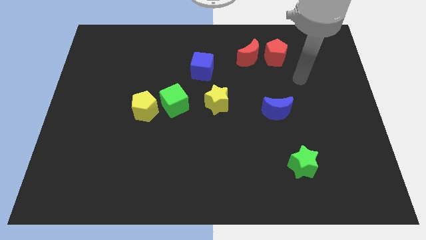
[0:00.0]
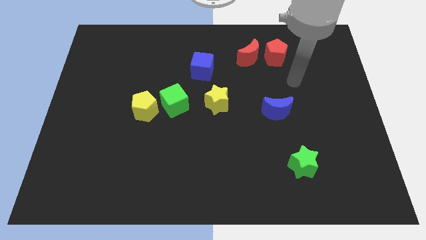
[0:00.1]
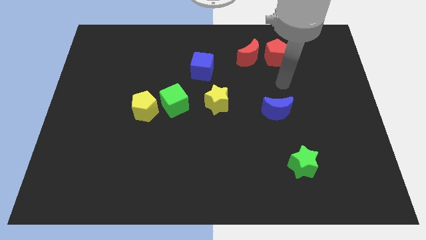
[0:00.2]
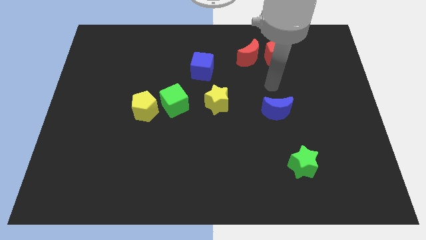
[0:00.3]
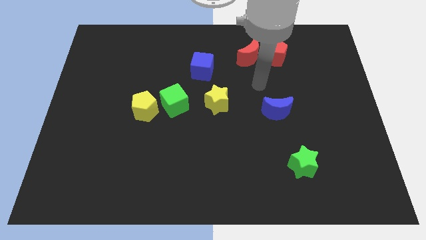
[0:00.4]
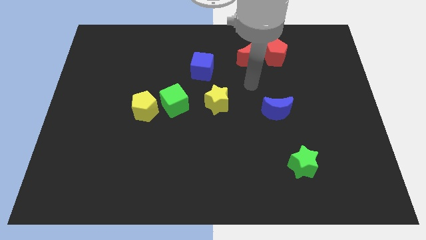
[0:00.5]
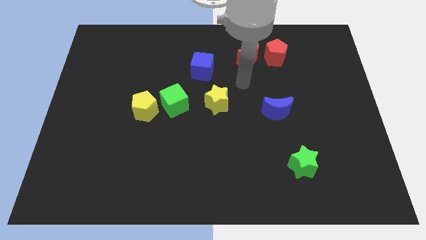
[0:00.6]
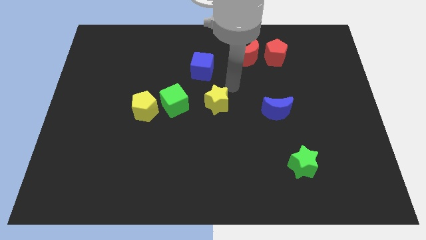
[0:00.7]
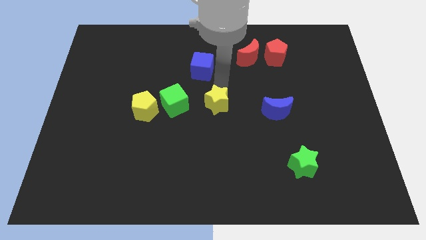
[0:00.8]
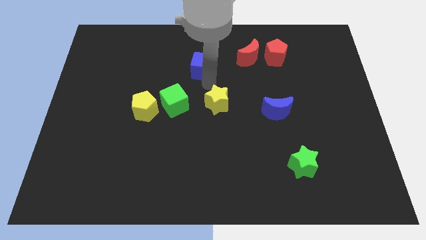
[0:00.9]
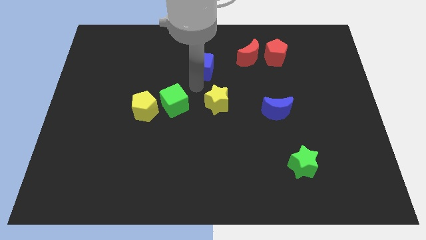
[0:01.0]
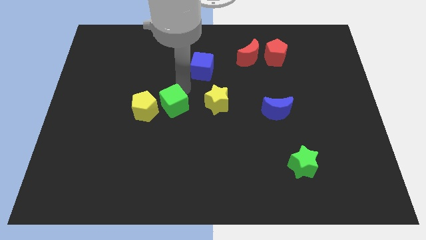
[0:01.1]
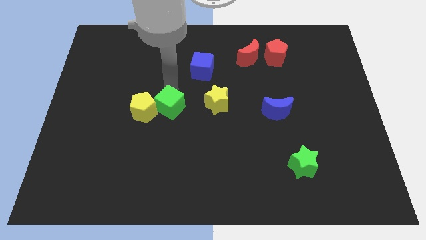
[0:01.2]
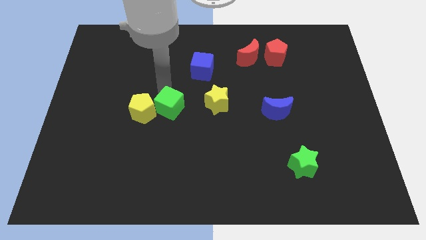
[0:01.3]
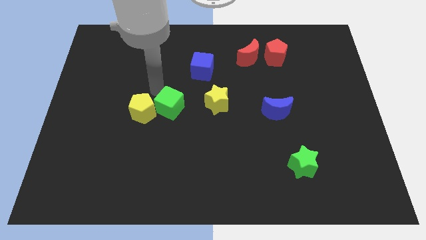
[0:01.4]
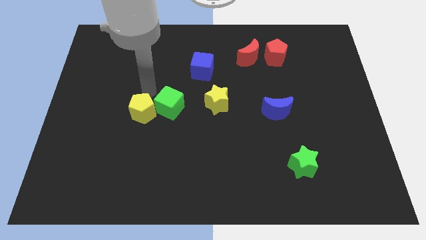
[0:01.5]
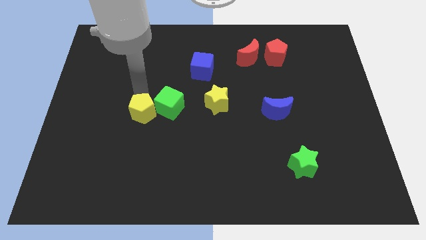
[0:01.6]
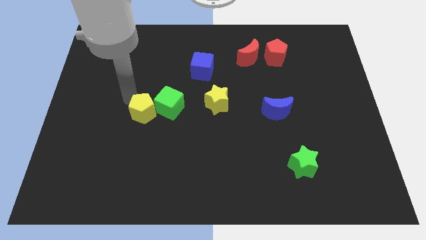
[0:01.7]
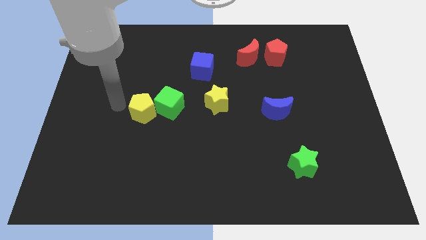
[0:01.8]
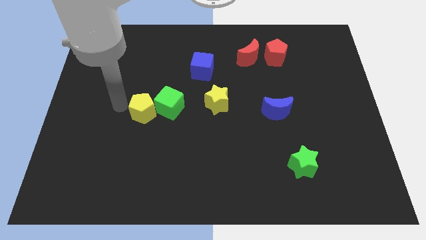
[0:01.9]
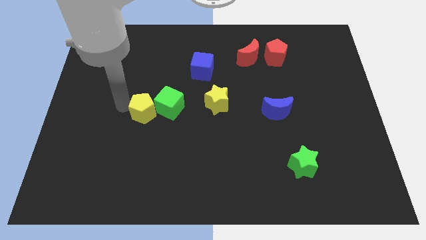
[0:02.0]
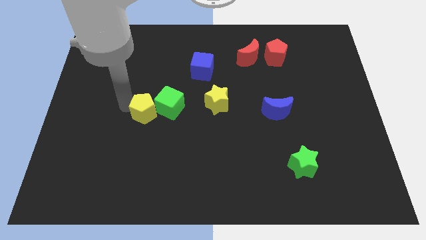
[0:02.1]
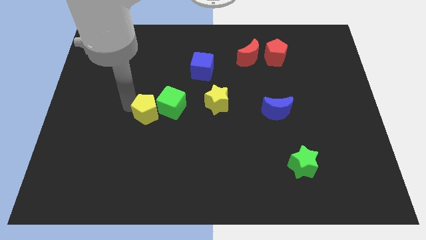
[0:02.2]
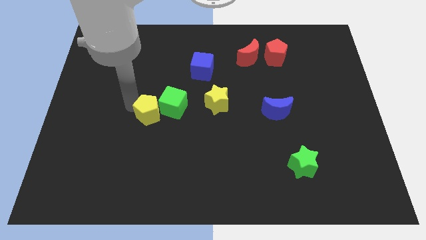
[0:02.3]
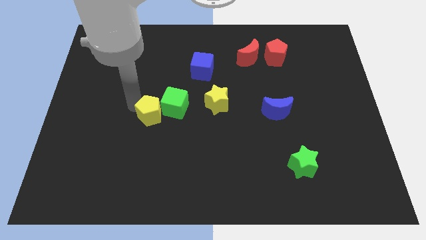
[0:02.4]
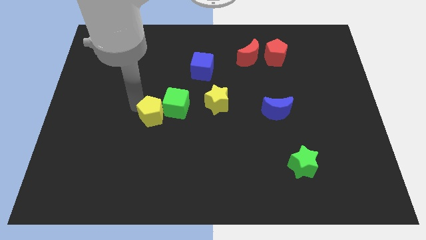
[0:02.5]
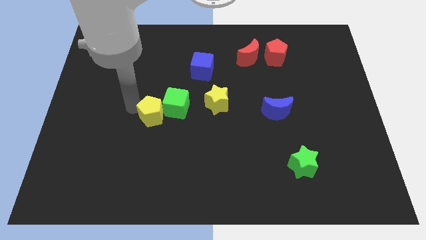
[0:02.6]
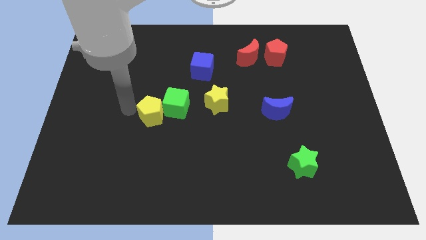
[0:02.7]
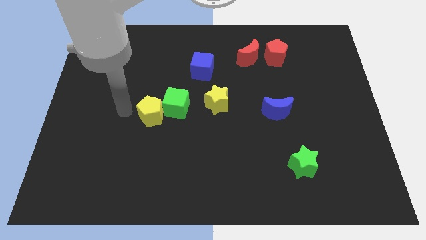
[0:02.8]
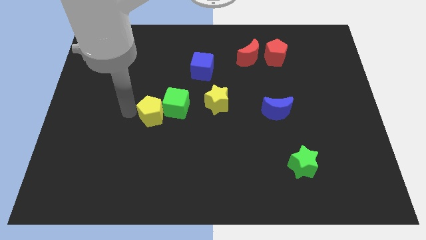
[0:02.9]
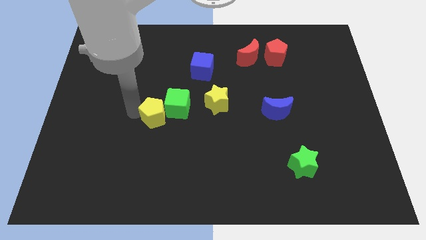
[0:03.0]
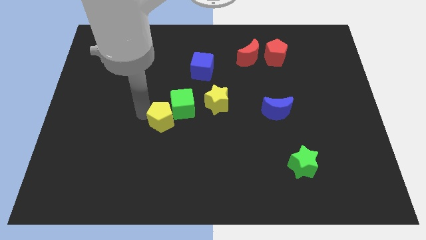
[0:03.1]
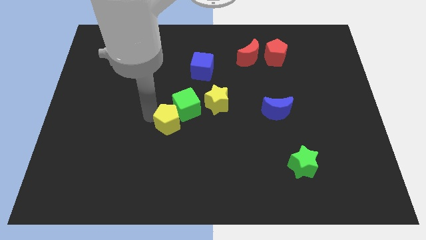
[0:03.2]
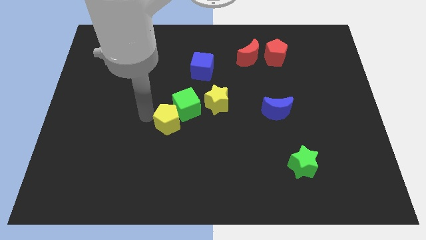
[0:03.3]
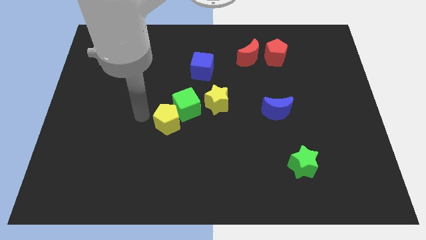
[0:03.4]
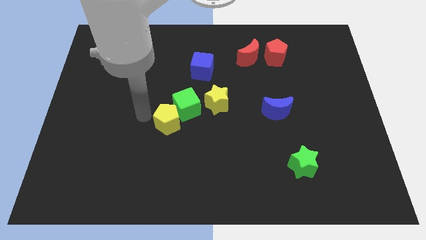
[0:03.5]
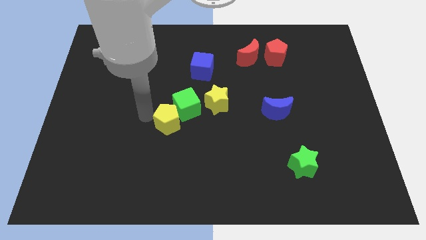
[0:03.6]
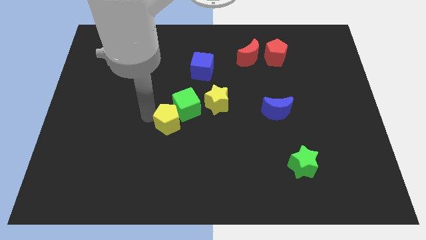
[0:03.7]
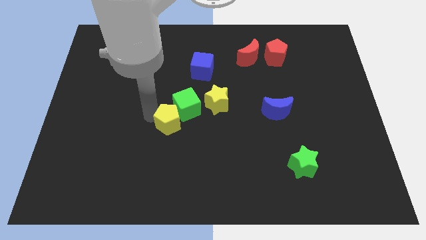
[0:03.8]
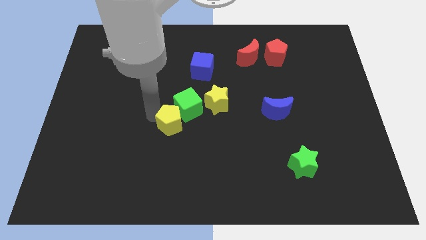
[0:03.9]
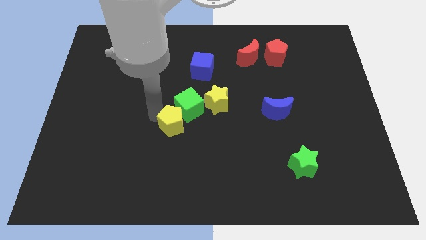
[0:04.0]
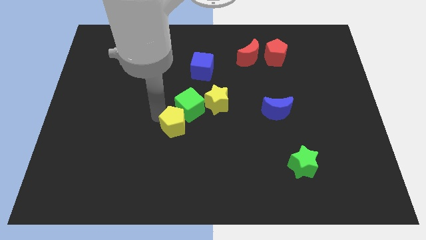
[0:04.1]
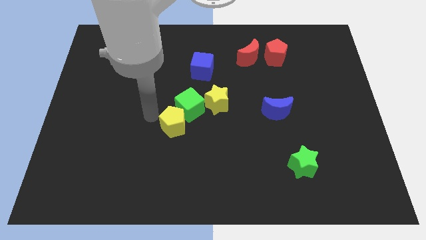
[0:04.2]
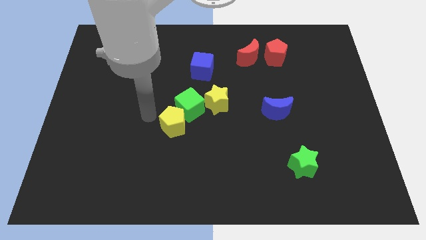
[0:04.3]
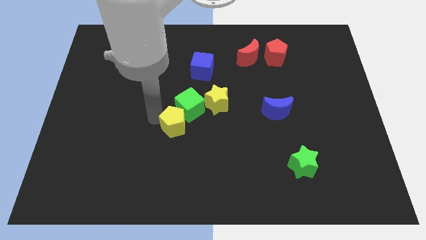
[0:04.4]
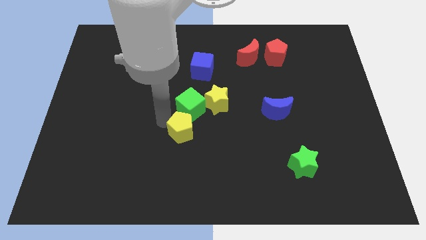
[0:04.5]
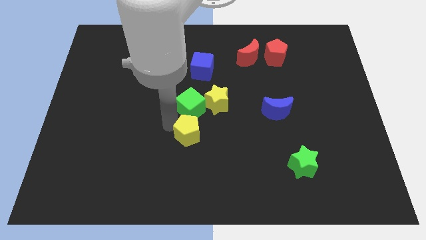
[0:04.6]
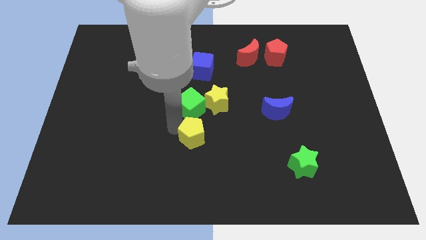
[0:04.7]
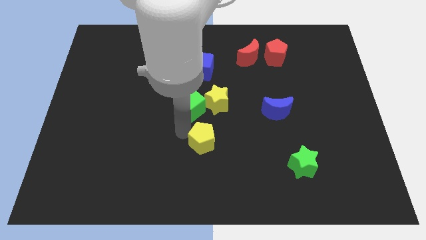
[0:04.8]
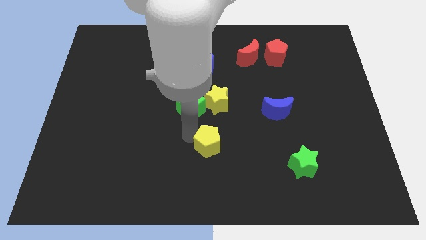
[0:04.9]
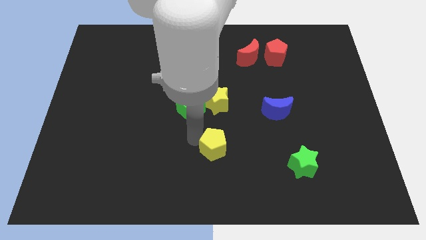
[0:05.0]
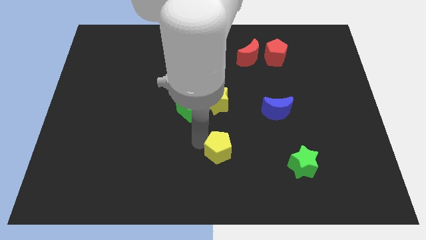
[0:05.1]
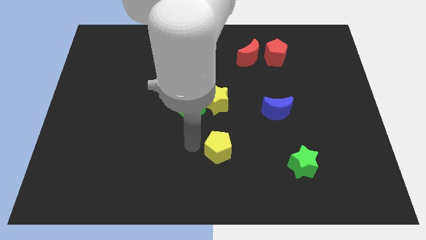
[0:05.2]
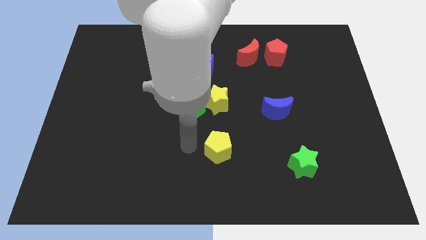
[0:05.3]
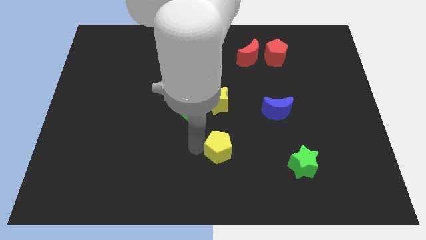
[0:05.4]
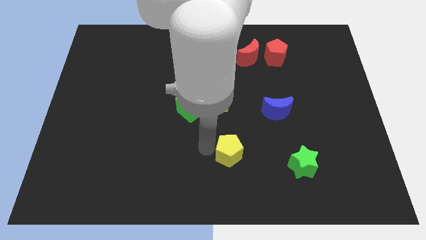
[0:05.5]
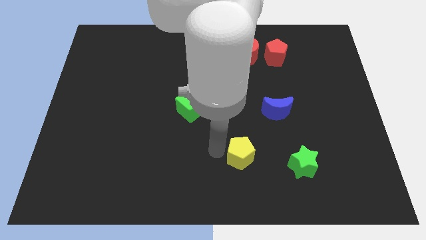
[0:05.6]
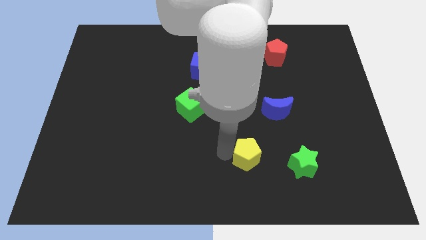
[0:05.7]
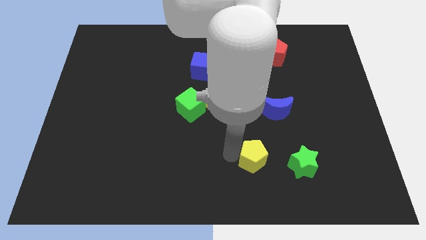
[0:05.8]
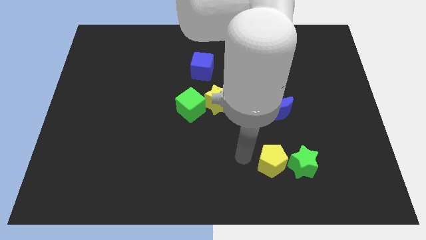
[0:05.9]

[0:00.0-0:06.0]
move the yellow pentagon close to the green star

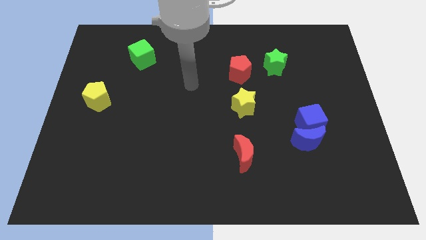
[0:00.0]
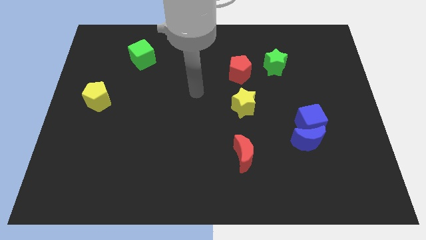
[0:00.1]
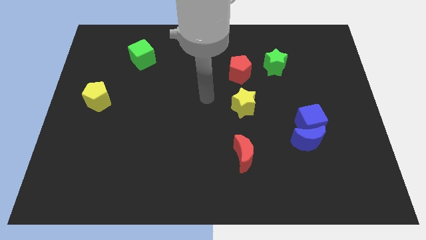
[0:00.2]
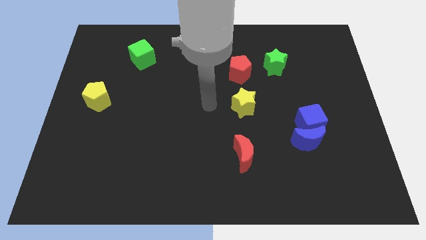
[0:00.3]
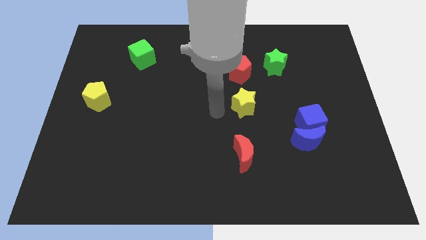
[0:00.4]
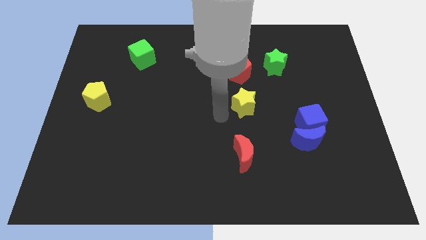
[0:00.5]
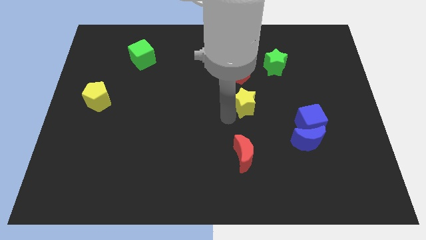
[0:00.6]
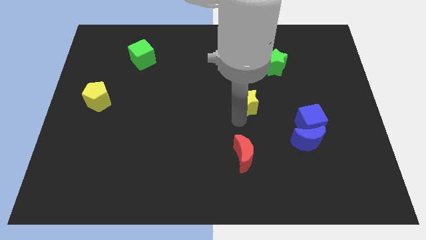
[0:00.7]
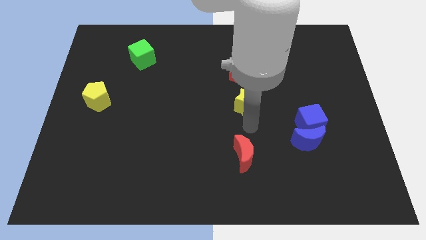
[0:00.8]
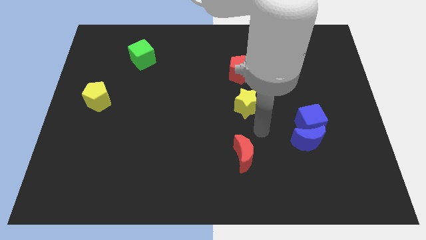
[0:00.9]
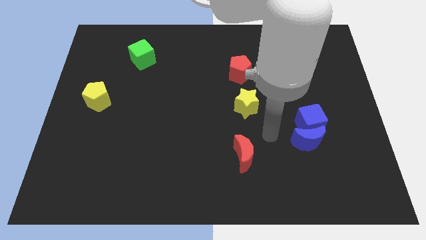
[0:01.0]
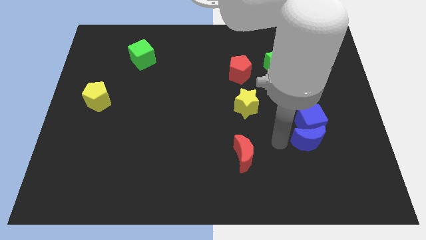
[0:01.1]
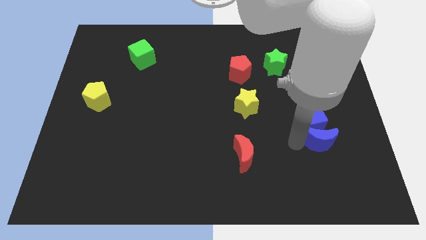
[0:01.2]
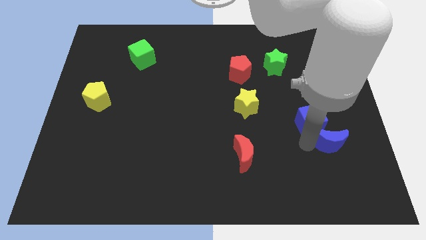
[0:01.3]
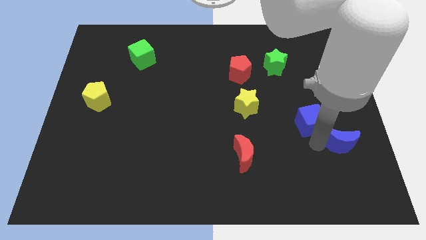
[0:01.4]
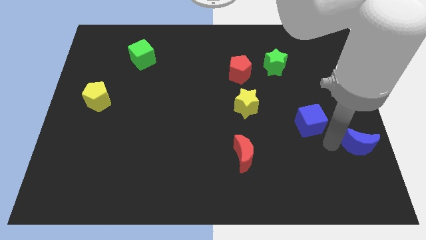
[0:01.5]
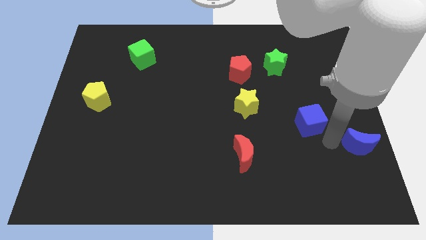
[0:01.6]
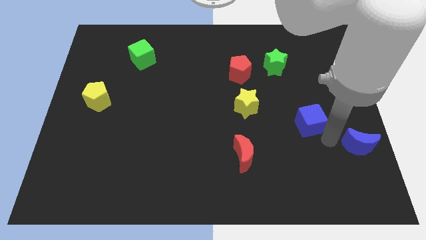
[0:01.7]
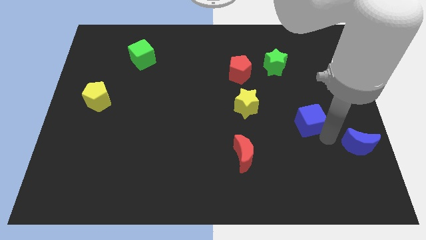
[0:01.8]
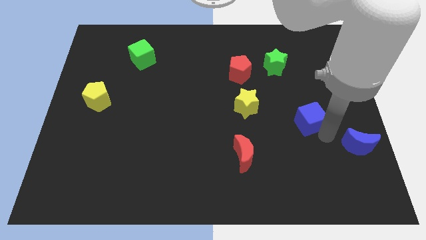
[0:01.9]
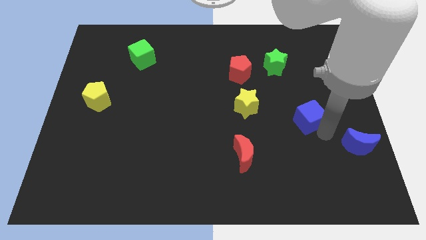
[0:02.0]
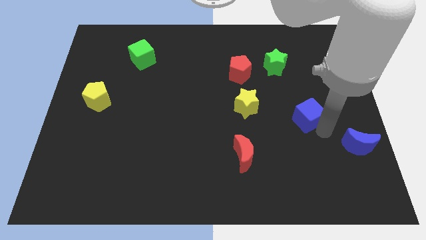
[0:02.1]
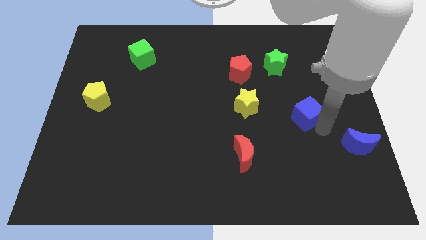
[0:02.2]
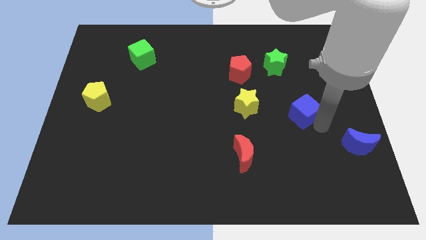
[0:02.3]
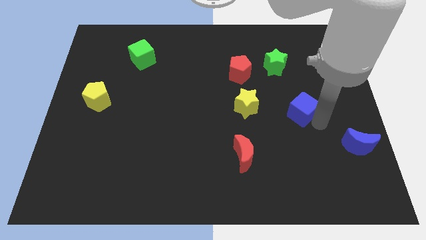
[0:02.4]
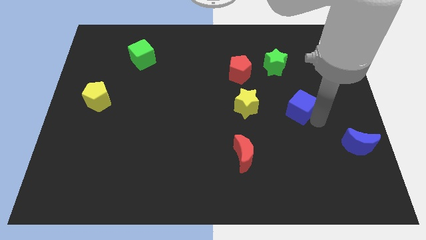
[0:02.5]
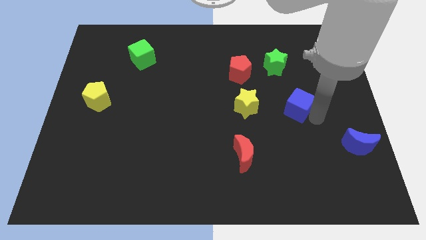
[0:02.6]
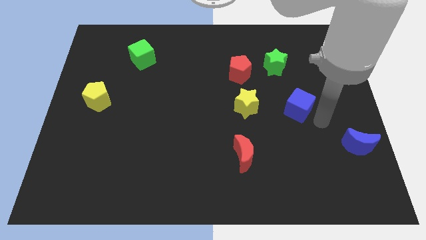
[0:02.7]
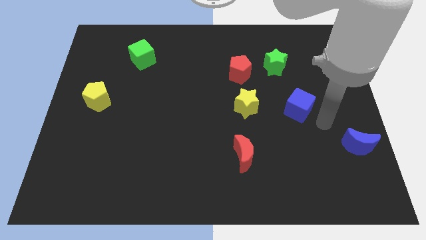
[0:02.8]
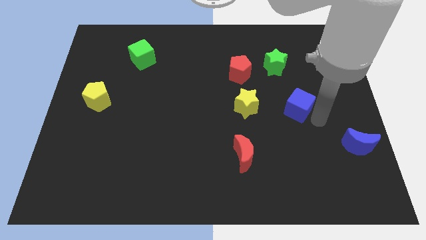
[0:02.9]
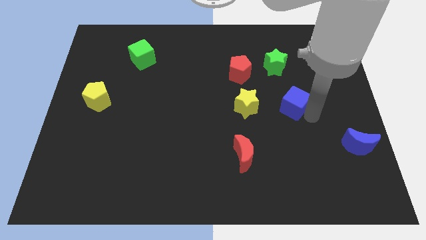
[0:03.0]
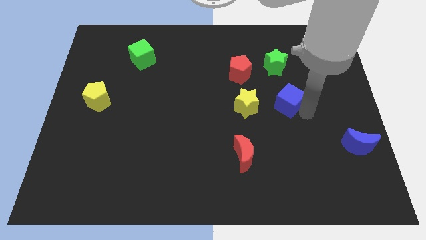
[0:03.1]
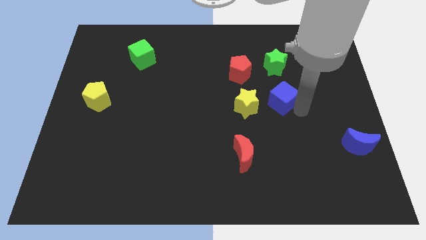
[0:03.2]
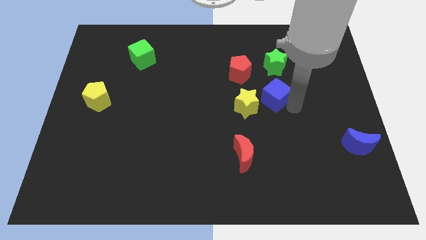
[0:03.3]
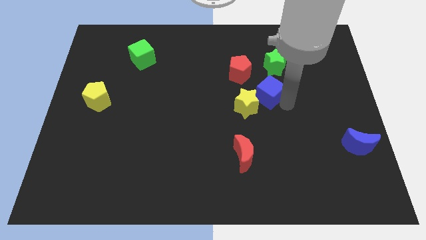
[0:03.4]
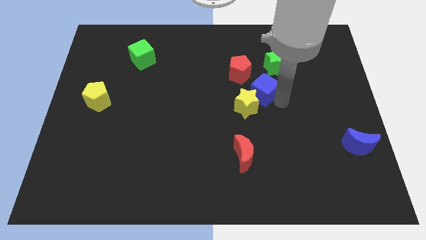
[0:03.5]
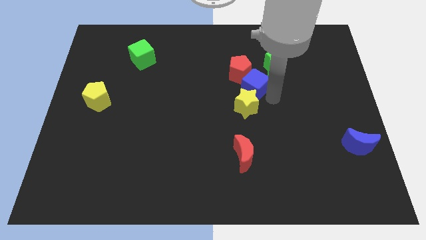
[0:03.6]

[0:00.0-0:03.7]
put the blue cube to the red pentagon
